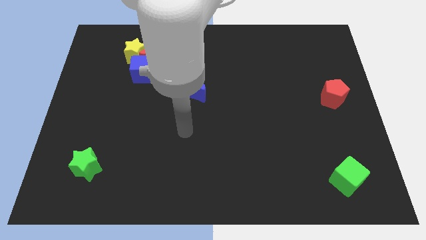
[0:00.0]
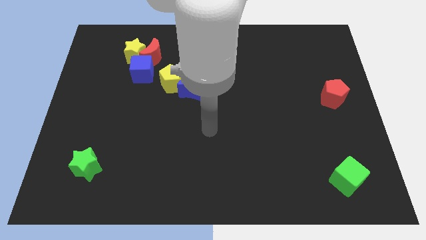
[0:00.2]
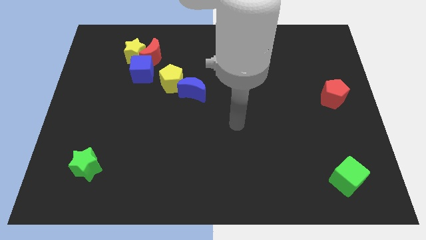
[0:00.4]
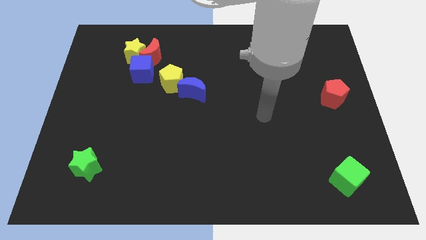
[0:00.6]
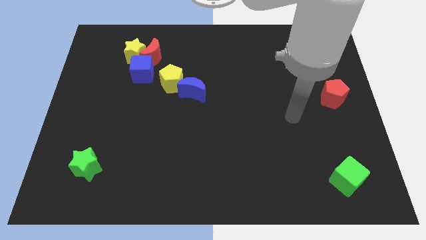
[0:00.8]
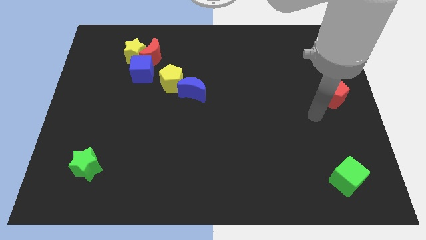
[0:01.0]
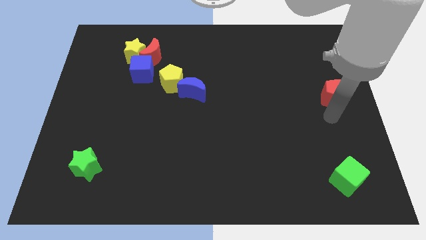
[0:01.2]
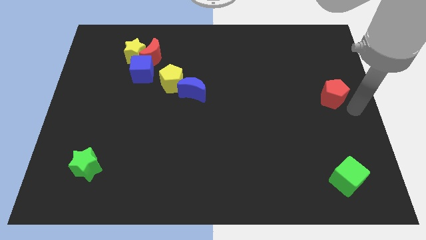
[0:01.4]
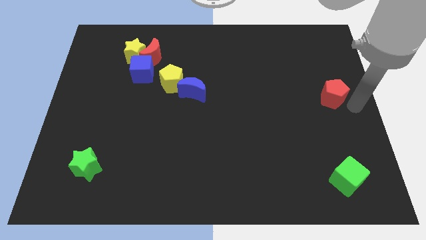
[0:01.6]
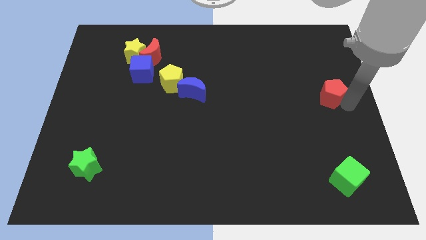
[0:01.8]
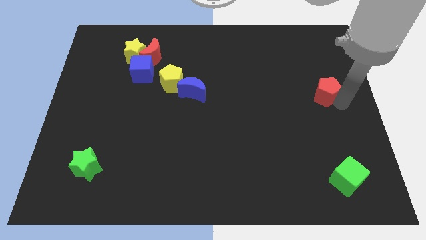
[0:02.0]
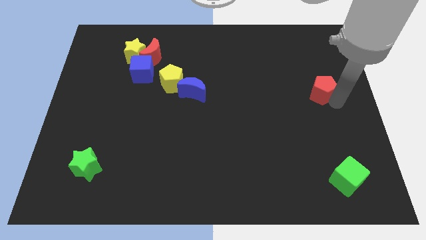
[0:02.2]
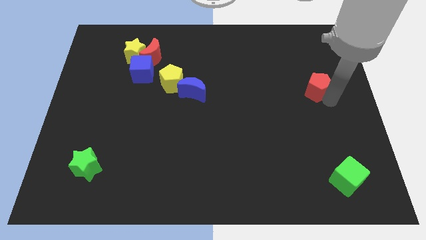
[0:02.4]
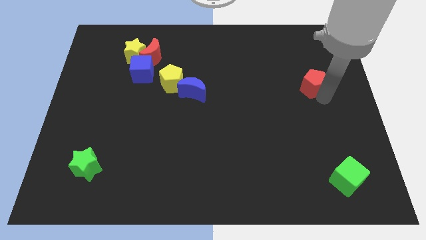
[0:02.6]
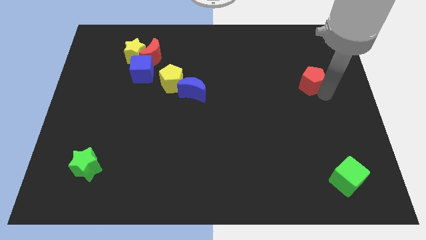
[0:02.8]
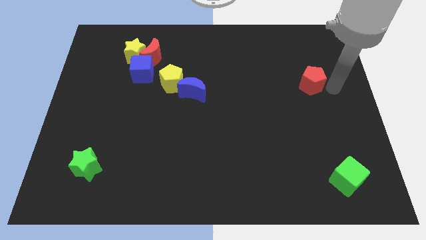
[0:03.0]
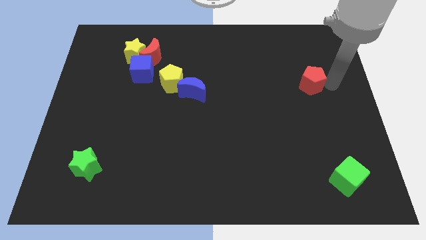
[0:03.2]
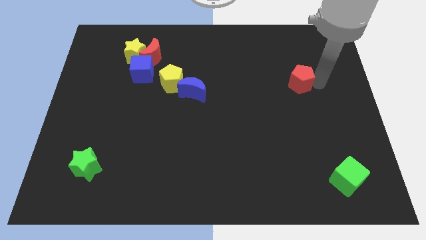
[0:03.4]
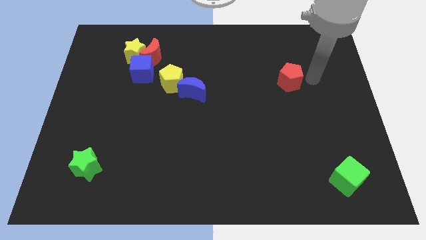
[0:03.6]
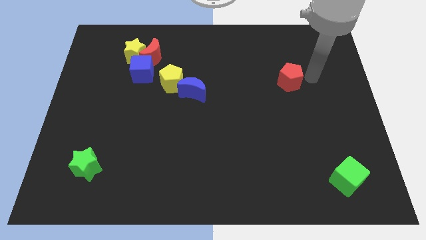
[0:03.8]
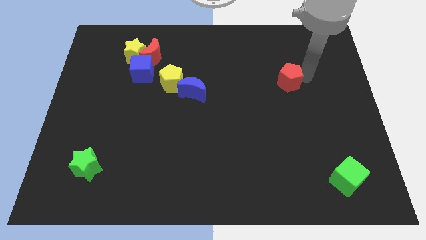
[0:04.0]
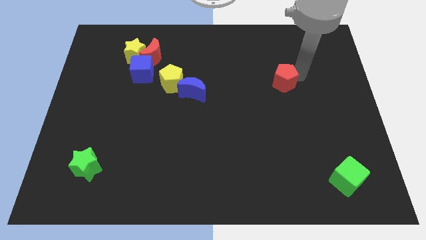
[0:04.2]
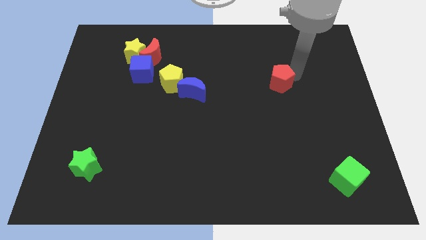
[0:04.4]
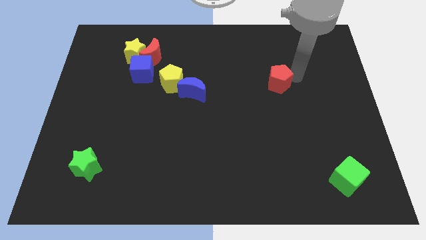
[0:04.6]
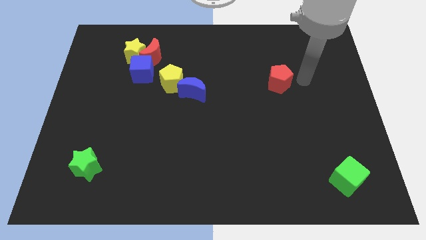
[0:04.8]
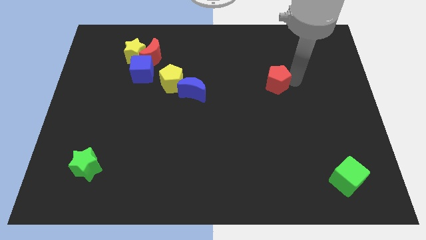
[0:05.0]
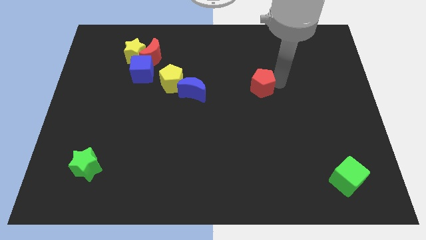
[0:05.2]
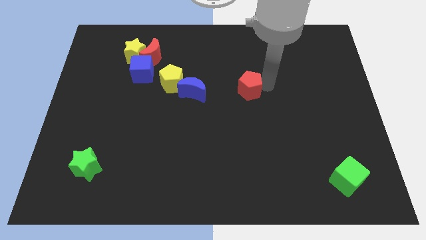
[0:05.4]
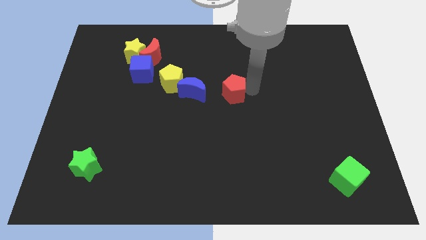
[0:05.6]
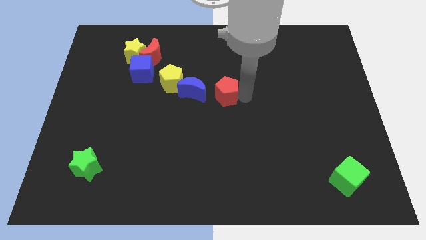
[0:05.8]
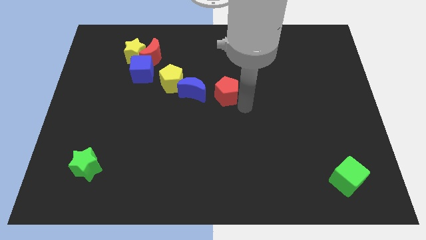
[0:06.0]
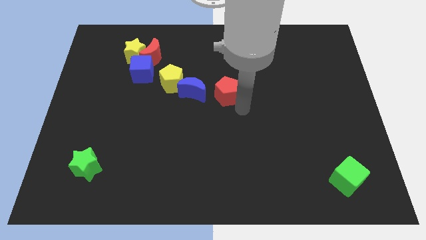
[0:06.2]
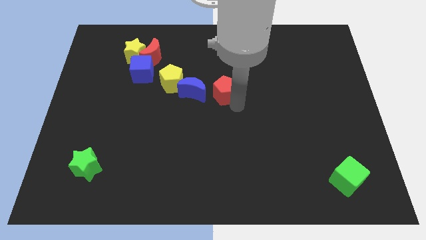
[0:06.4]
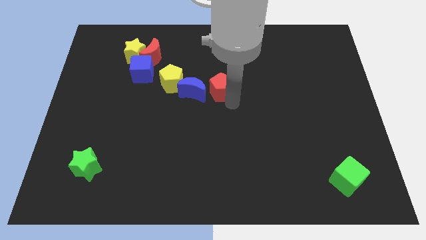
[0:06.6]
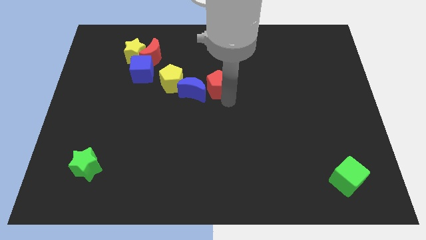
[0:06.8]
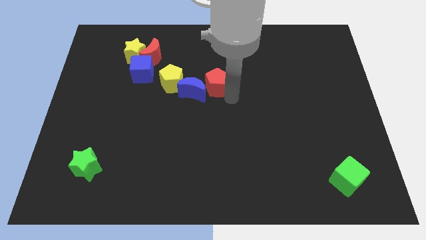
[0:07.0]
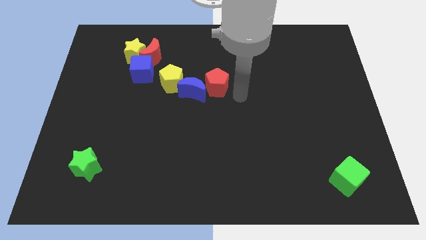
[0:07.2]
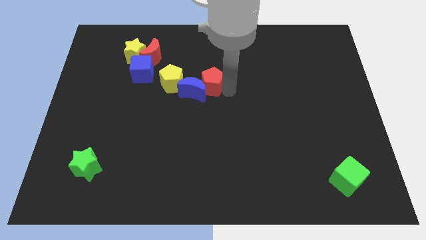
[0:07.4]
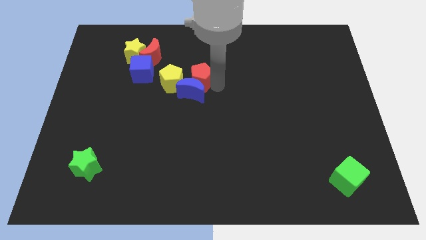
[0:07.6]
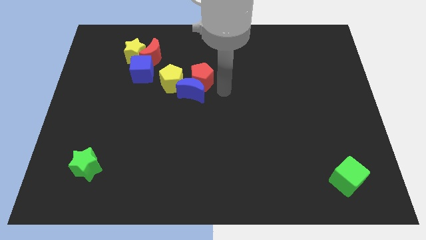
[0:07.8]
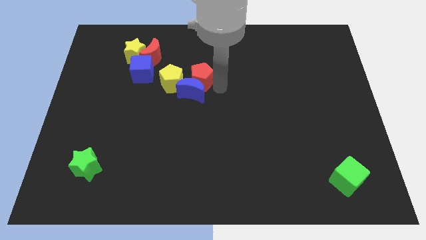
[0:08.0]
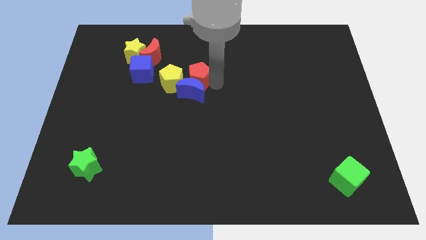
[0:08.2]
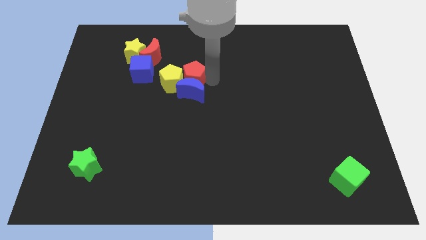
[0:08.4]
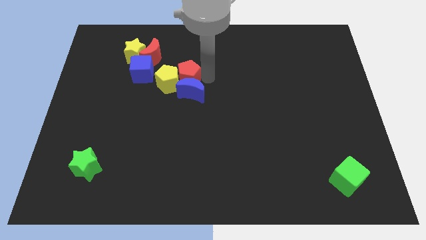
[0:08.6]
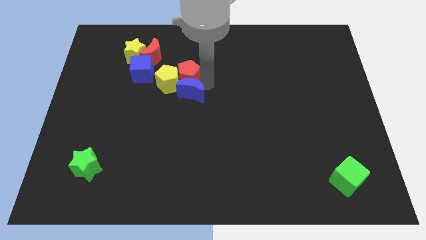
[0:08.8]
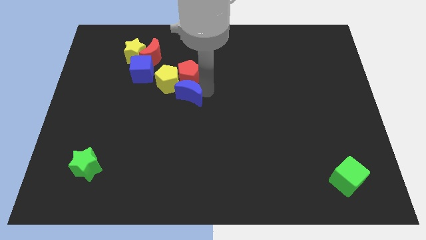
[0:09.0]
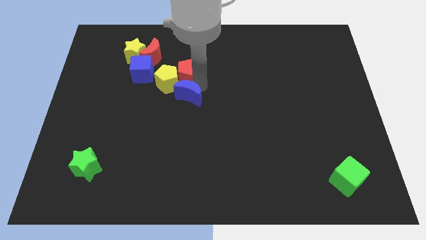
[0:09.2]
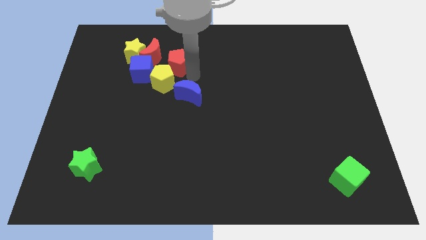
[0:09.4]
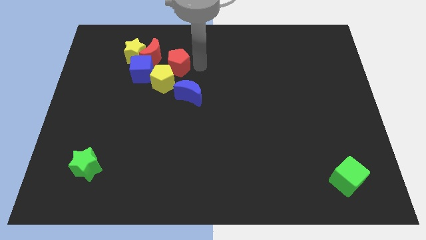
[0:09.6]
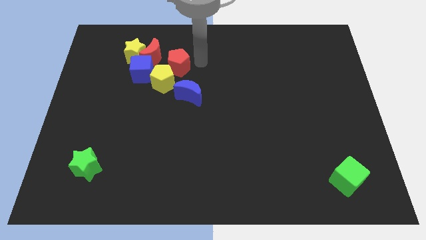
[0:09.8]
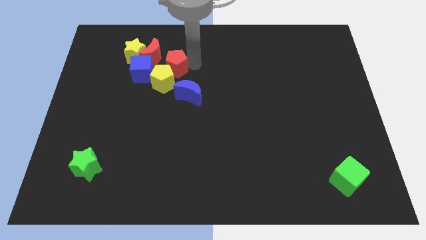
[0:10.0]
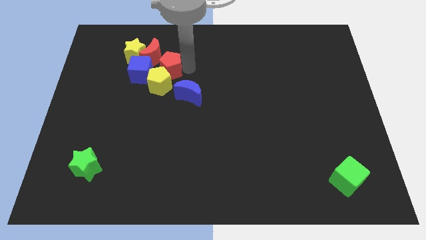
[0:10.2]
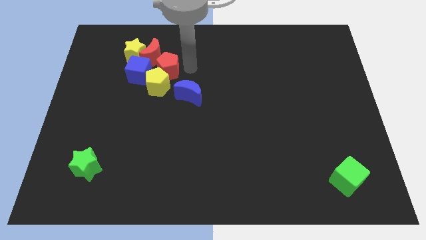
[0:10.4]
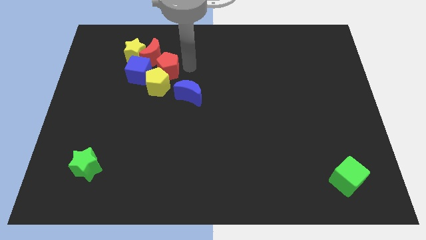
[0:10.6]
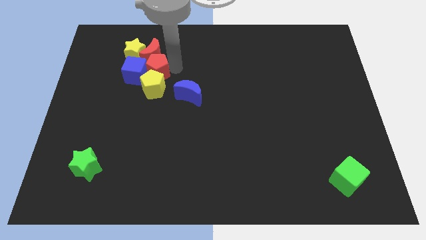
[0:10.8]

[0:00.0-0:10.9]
slide the red pentagon close to the blue cube

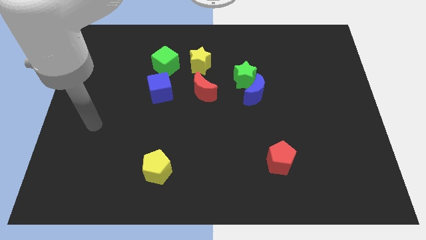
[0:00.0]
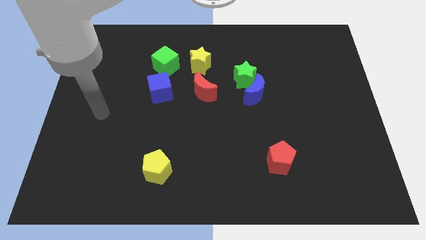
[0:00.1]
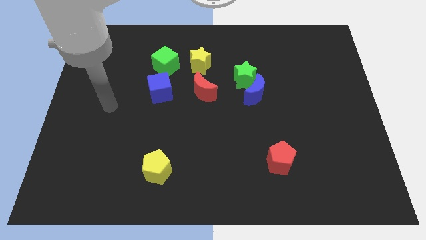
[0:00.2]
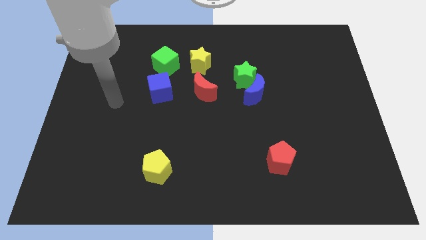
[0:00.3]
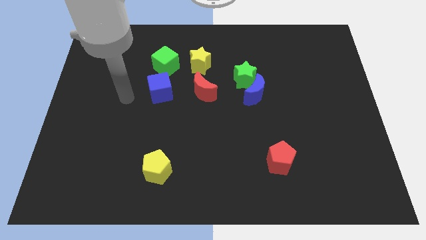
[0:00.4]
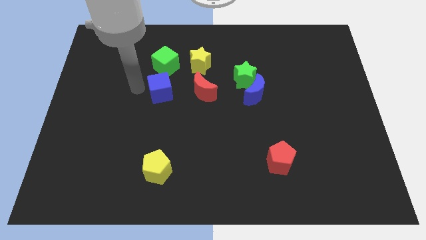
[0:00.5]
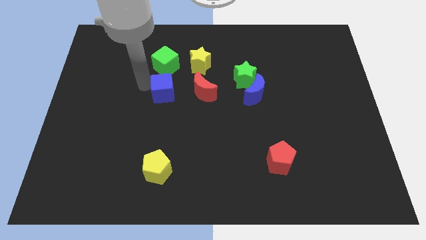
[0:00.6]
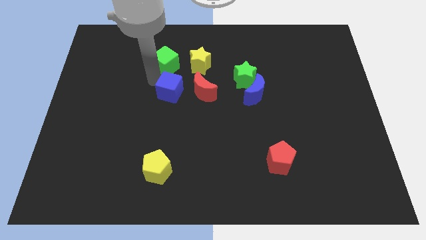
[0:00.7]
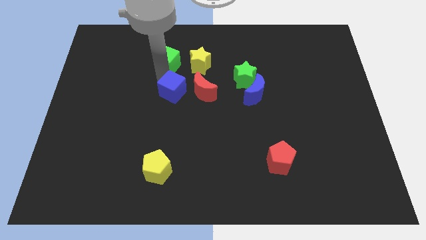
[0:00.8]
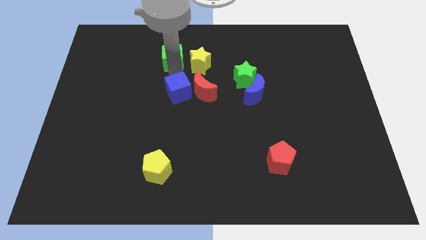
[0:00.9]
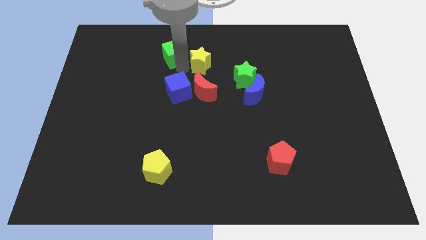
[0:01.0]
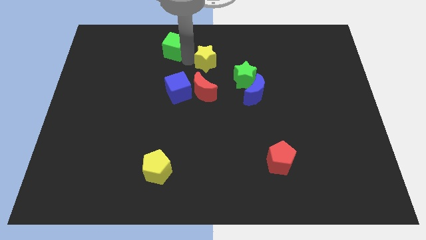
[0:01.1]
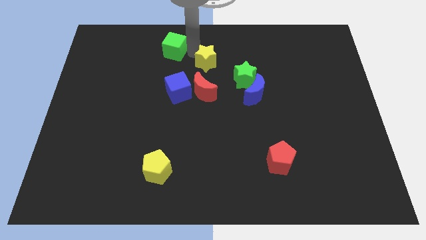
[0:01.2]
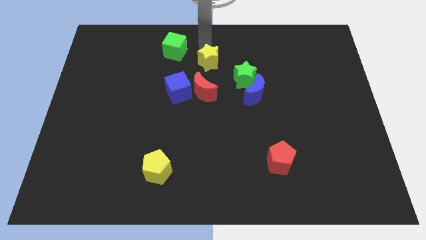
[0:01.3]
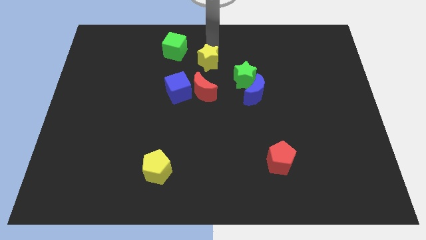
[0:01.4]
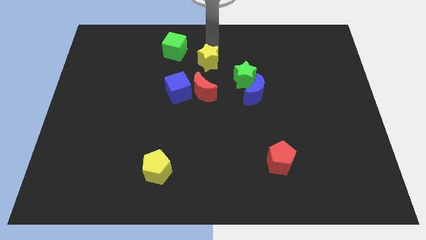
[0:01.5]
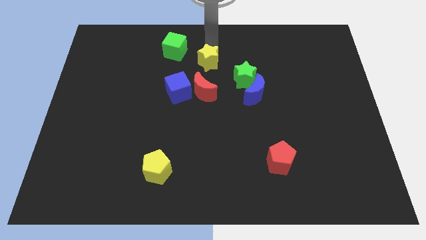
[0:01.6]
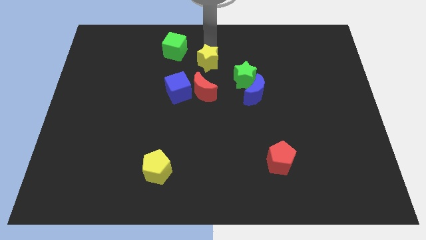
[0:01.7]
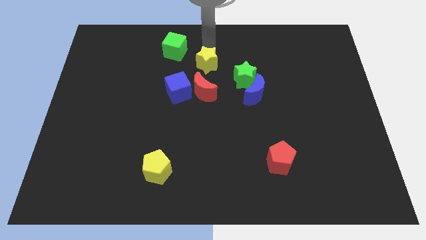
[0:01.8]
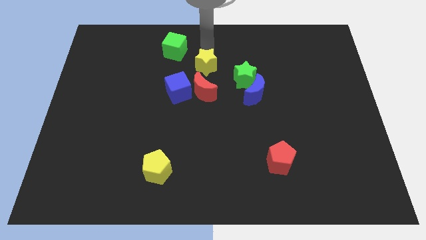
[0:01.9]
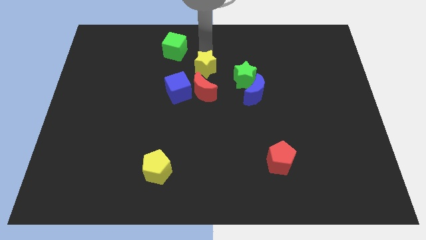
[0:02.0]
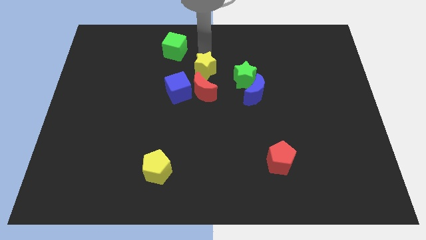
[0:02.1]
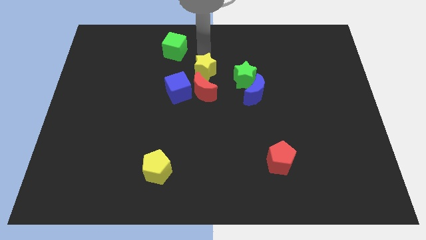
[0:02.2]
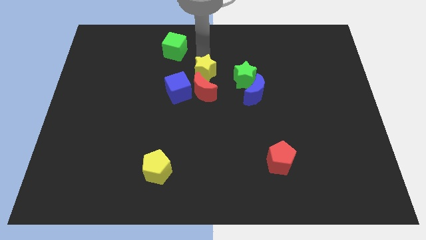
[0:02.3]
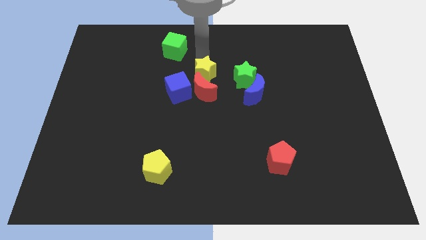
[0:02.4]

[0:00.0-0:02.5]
slide the yellow star to the red moon
